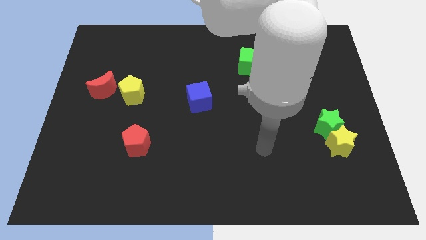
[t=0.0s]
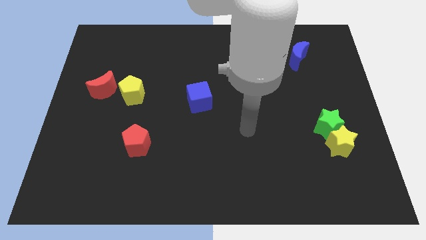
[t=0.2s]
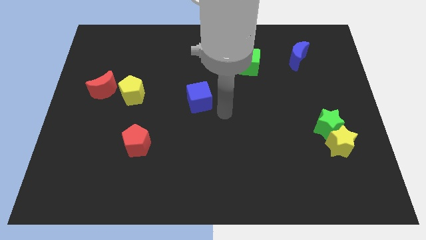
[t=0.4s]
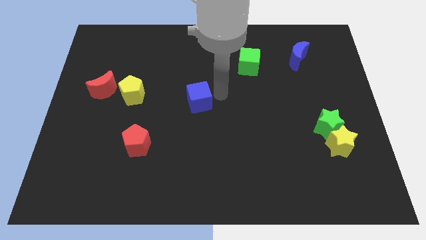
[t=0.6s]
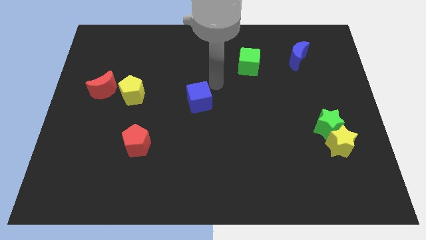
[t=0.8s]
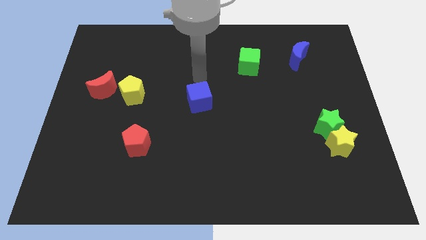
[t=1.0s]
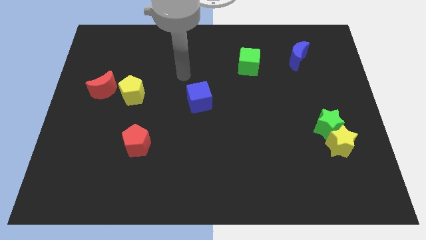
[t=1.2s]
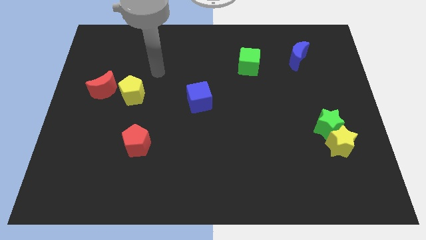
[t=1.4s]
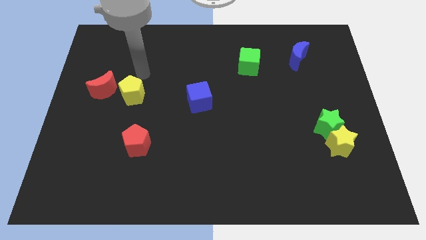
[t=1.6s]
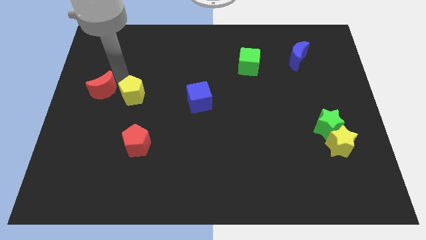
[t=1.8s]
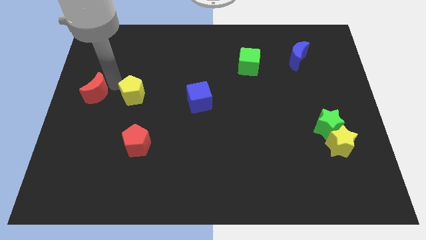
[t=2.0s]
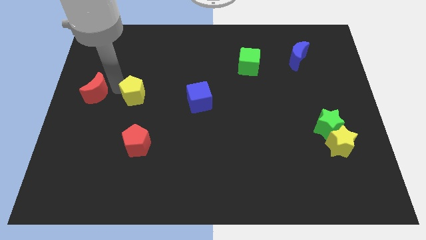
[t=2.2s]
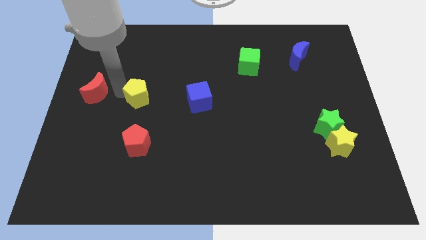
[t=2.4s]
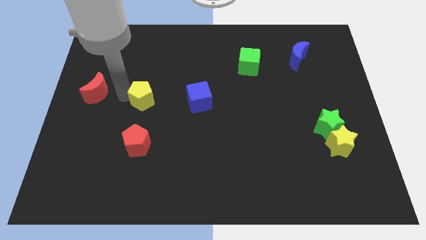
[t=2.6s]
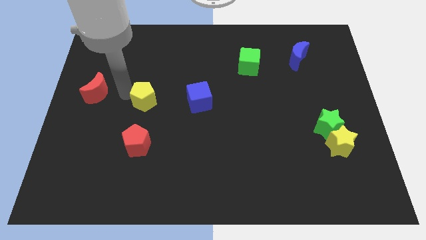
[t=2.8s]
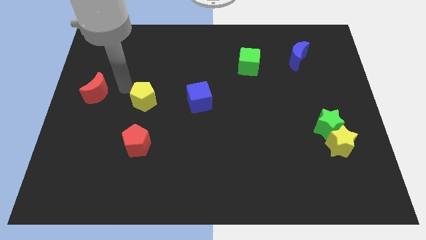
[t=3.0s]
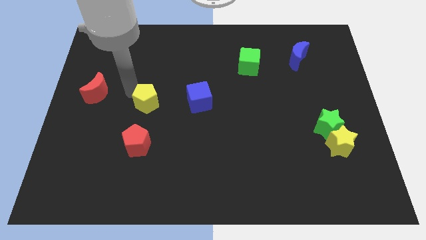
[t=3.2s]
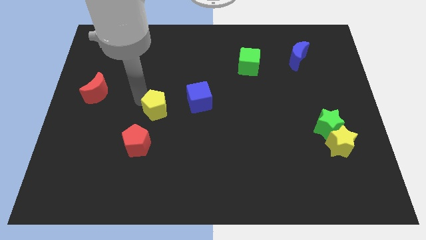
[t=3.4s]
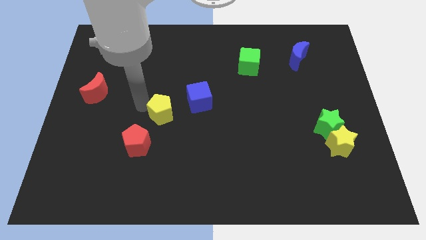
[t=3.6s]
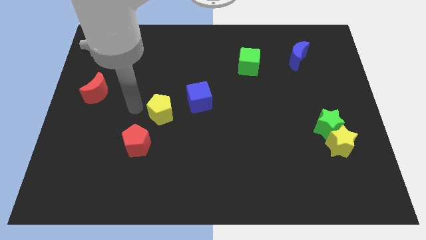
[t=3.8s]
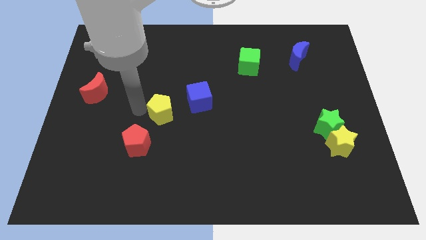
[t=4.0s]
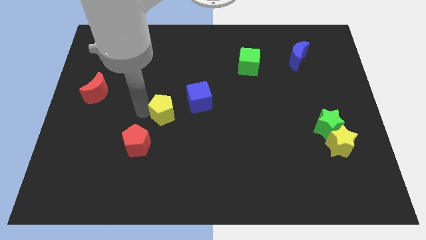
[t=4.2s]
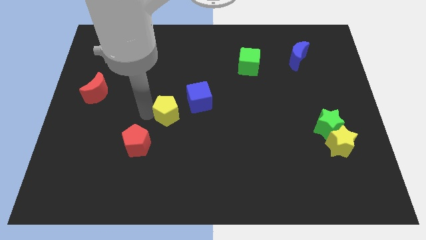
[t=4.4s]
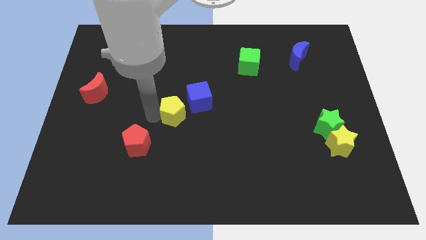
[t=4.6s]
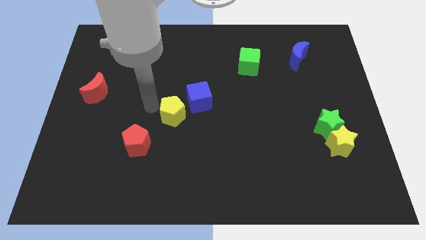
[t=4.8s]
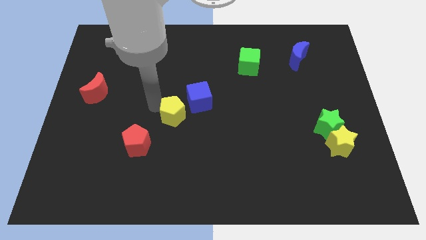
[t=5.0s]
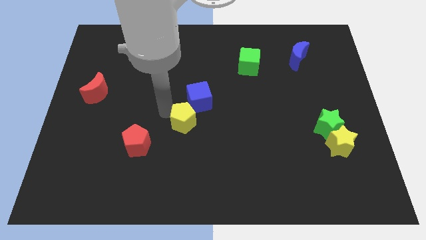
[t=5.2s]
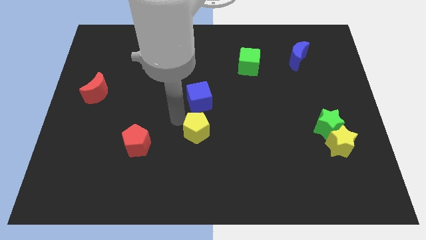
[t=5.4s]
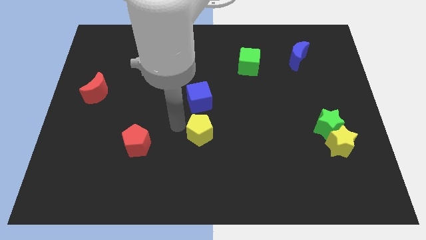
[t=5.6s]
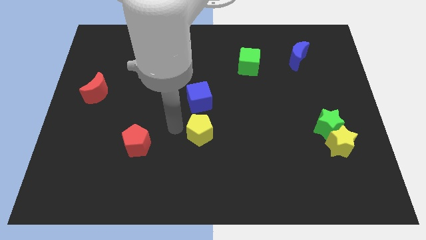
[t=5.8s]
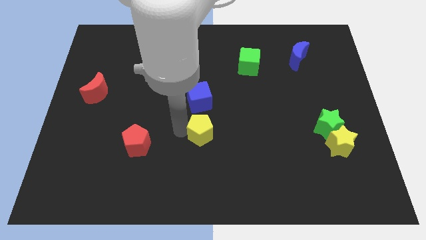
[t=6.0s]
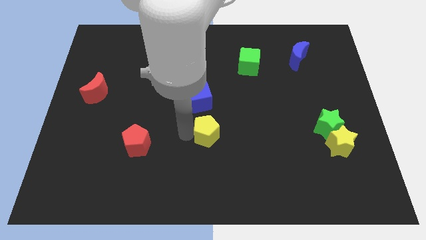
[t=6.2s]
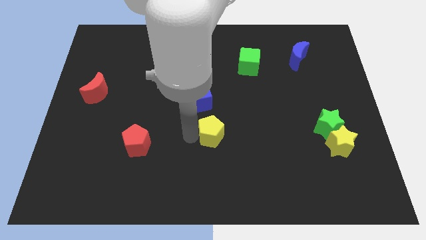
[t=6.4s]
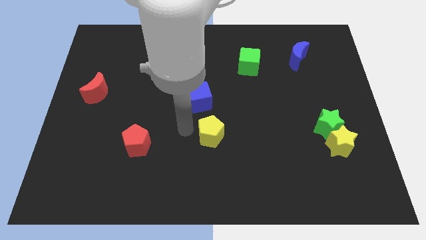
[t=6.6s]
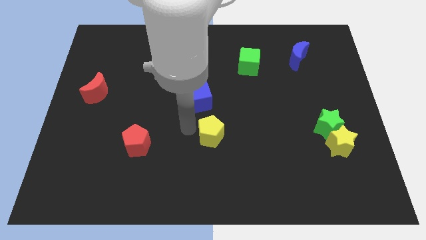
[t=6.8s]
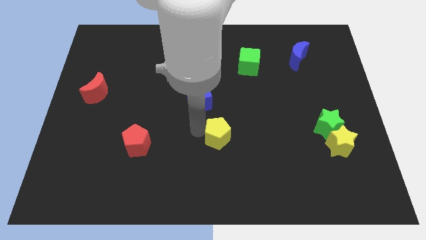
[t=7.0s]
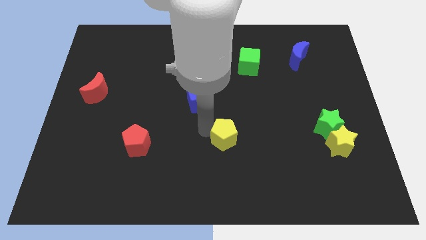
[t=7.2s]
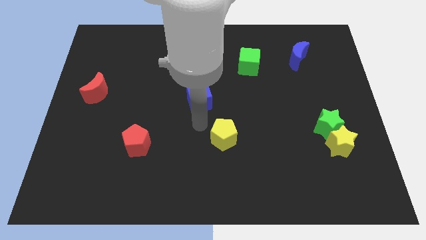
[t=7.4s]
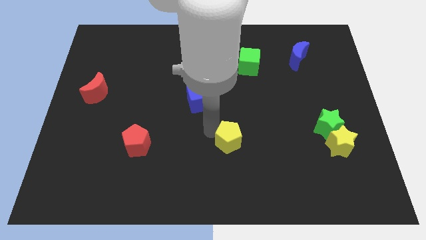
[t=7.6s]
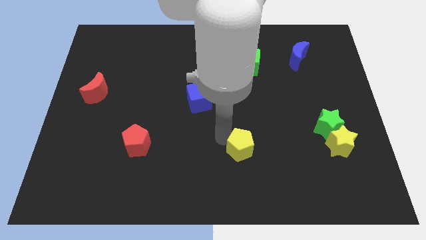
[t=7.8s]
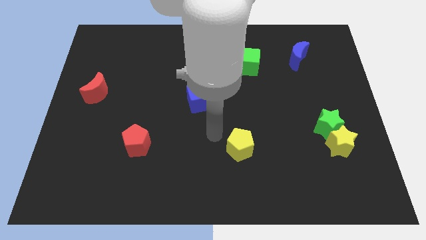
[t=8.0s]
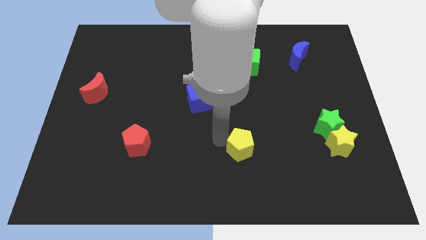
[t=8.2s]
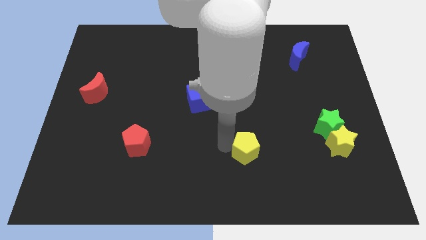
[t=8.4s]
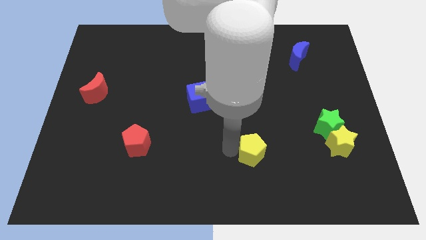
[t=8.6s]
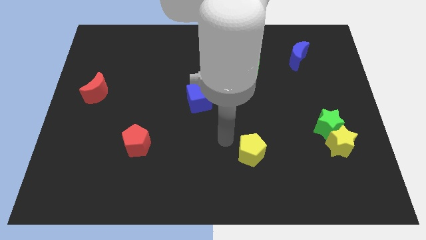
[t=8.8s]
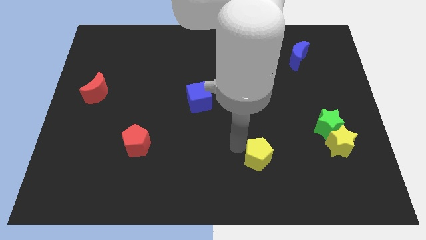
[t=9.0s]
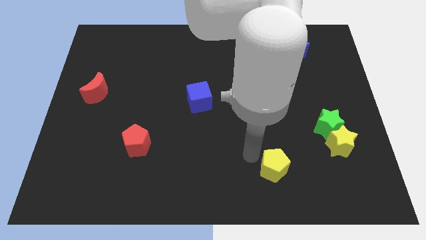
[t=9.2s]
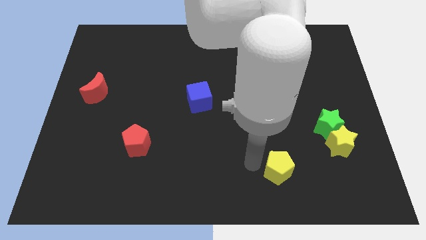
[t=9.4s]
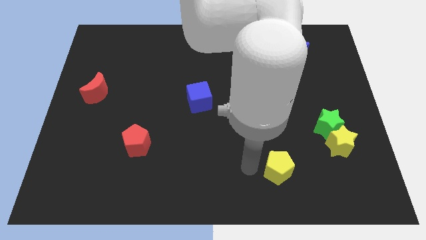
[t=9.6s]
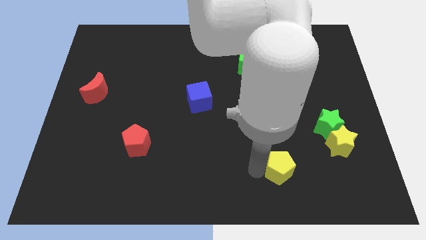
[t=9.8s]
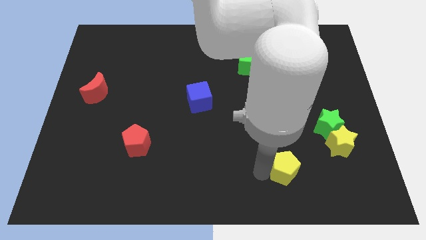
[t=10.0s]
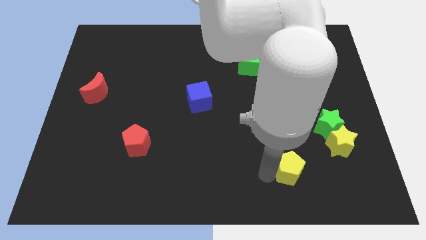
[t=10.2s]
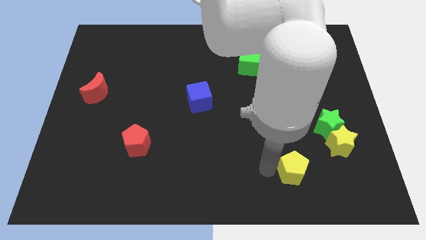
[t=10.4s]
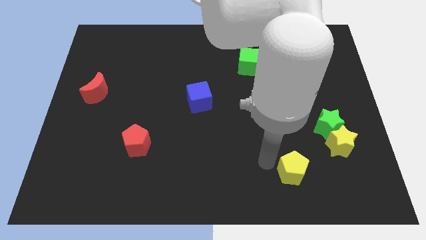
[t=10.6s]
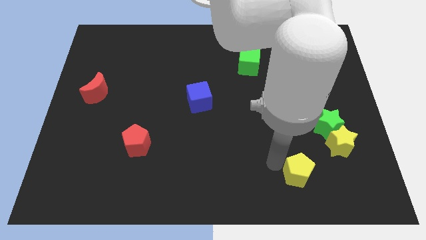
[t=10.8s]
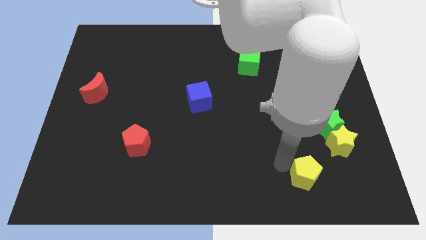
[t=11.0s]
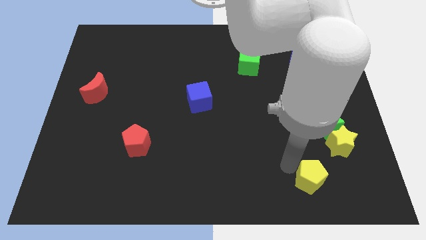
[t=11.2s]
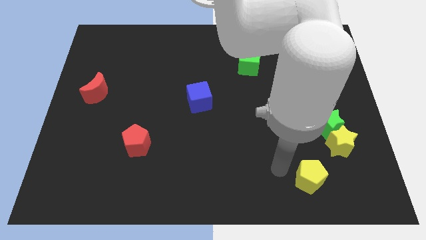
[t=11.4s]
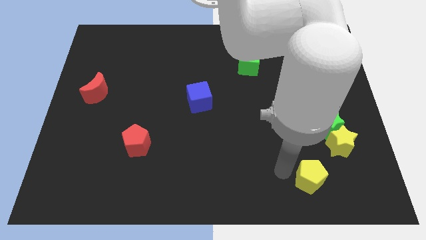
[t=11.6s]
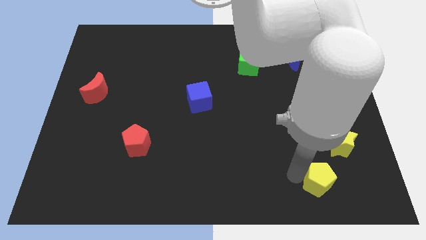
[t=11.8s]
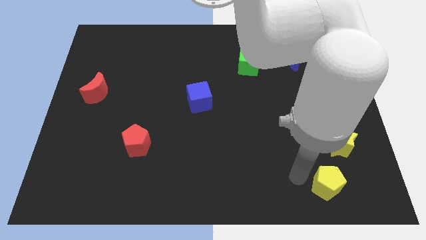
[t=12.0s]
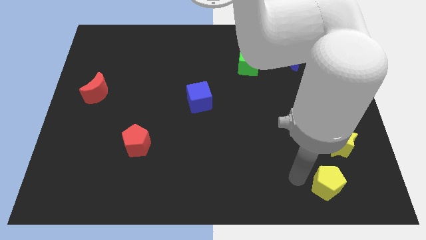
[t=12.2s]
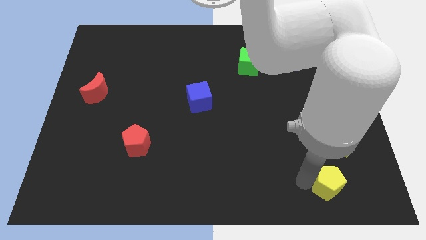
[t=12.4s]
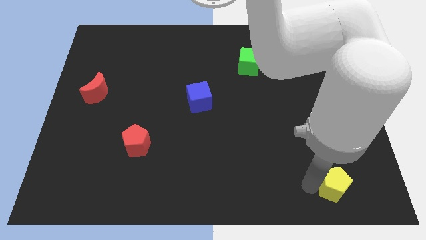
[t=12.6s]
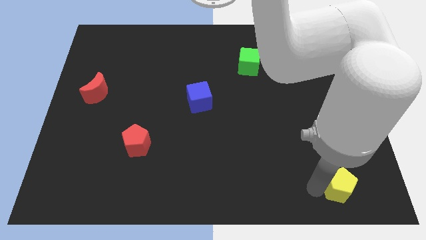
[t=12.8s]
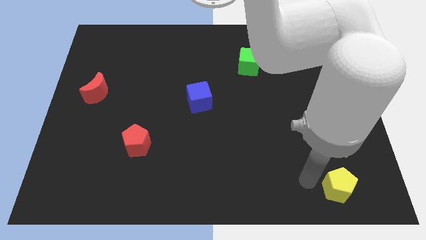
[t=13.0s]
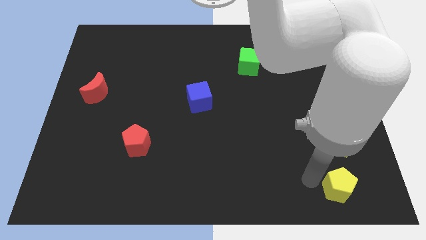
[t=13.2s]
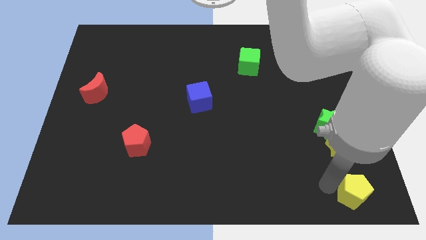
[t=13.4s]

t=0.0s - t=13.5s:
move the yellow pentagon to the bottom right of the board
